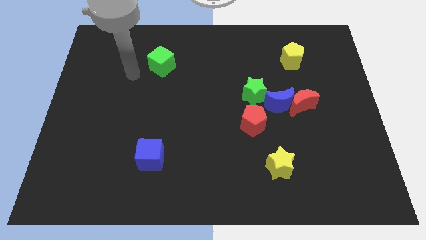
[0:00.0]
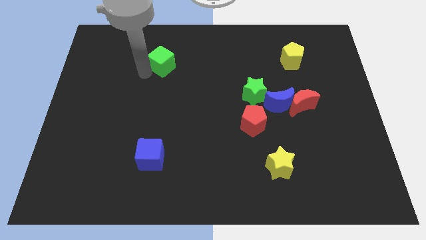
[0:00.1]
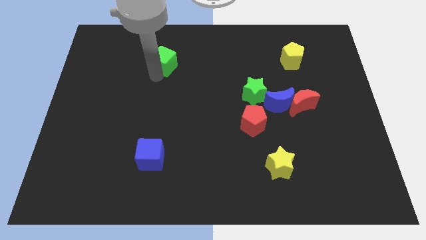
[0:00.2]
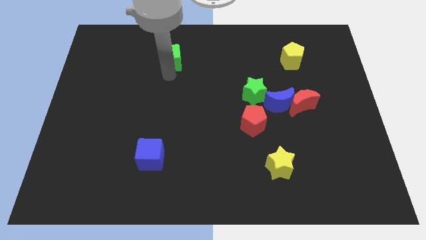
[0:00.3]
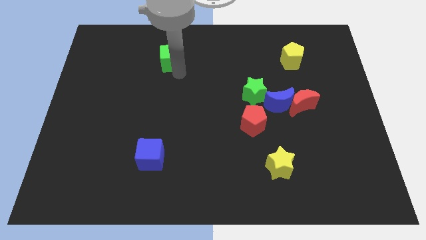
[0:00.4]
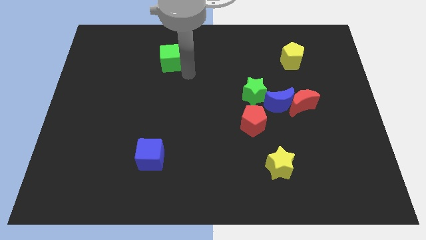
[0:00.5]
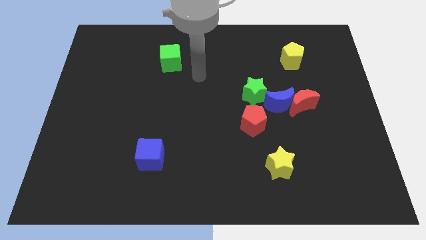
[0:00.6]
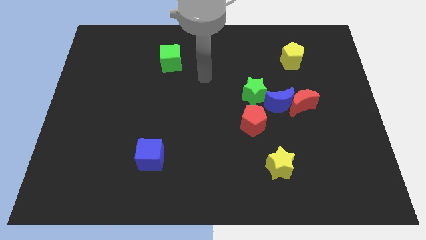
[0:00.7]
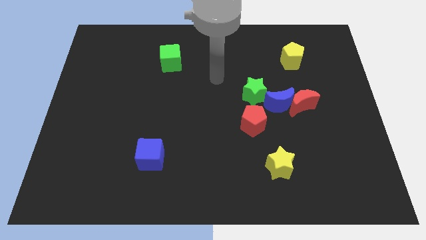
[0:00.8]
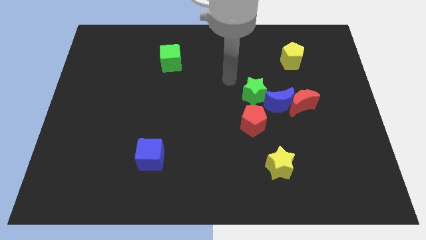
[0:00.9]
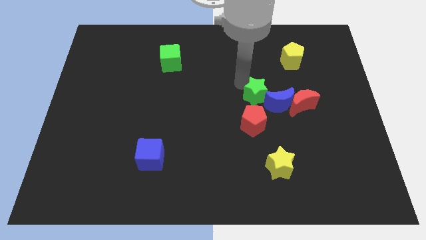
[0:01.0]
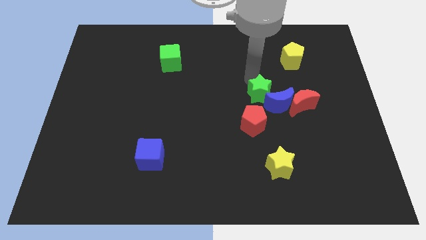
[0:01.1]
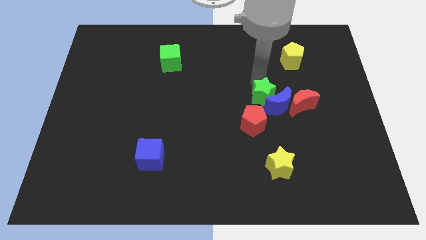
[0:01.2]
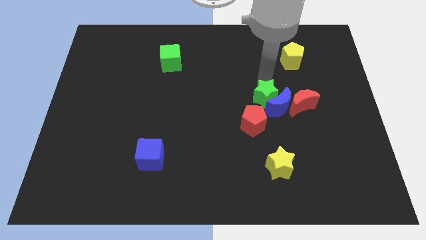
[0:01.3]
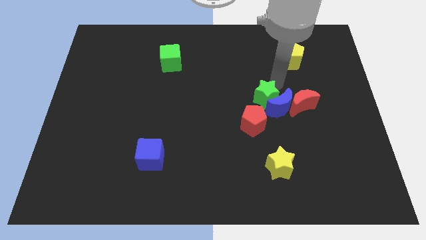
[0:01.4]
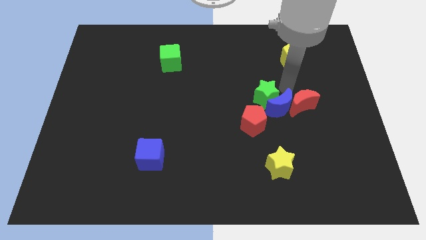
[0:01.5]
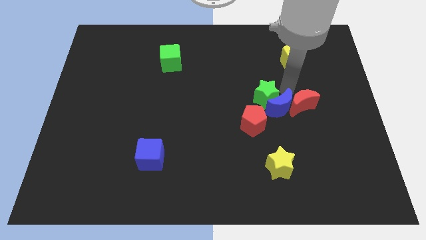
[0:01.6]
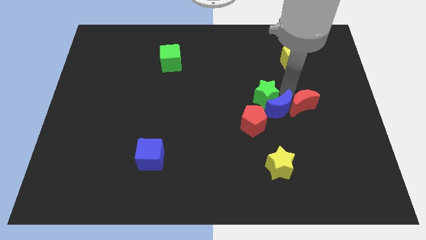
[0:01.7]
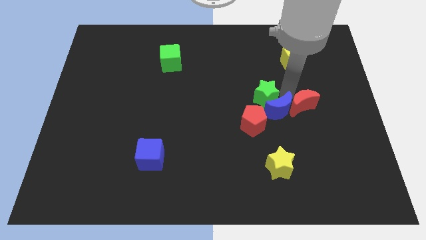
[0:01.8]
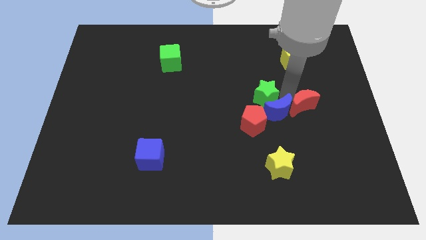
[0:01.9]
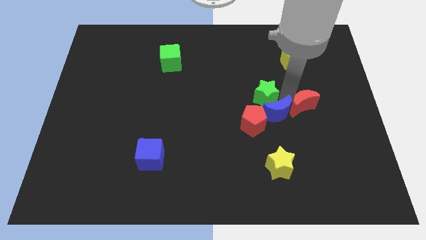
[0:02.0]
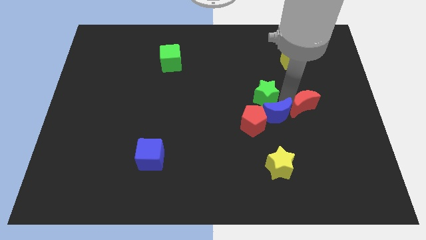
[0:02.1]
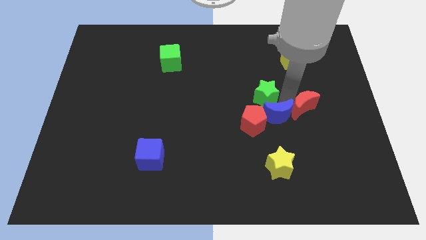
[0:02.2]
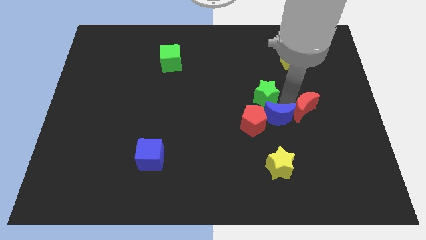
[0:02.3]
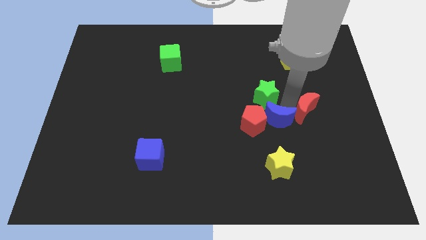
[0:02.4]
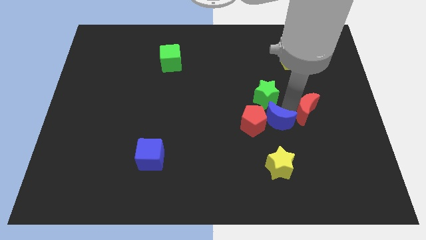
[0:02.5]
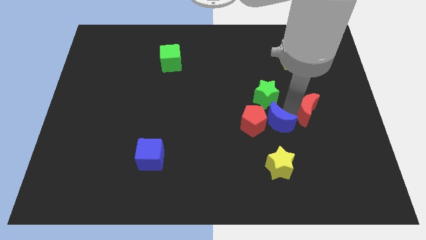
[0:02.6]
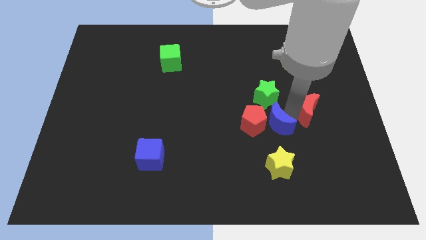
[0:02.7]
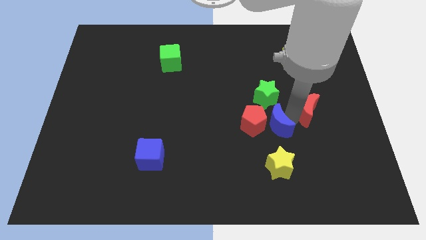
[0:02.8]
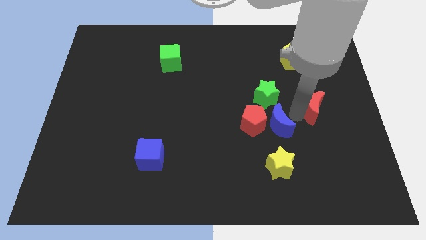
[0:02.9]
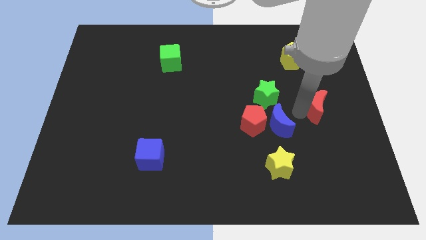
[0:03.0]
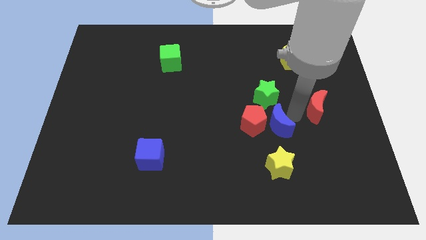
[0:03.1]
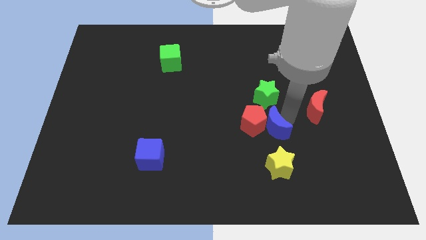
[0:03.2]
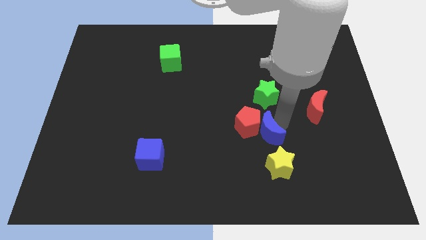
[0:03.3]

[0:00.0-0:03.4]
push the blue moon a little downwards and left

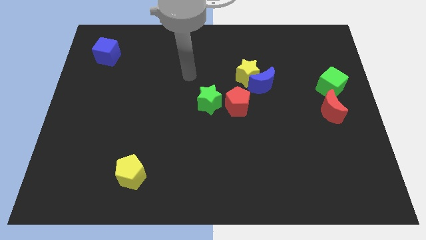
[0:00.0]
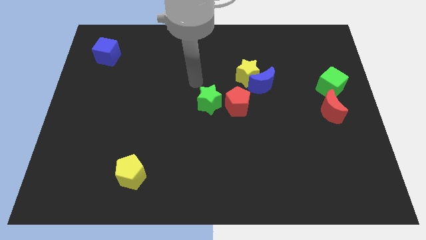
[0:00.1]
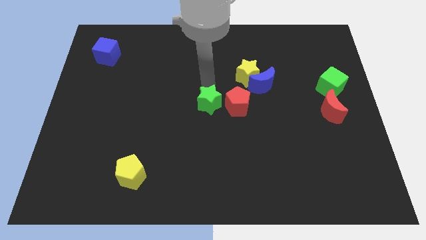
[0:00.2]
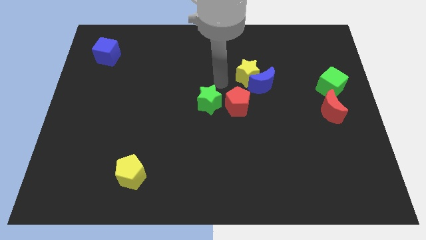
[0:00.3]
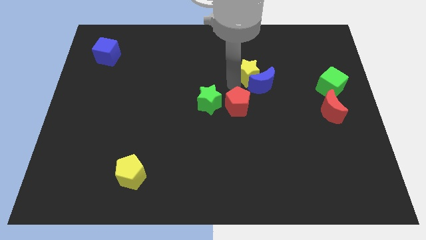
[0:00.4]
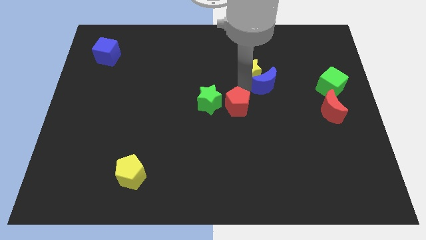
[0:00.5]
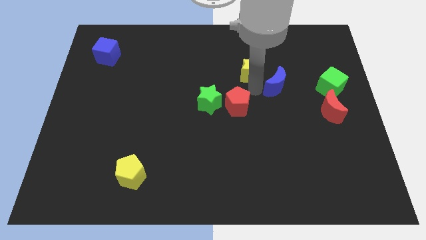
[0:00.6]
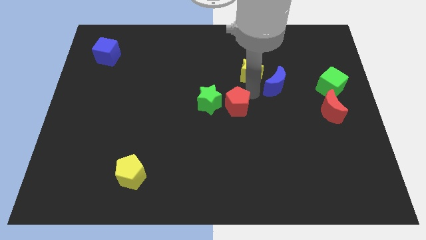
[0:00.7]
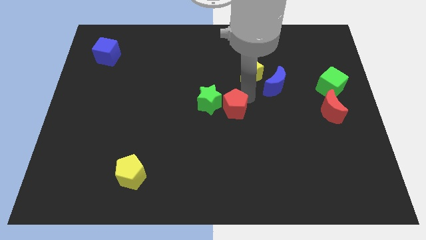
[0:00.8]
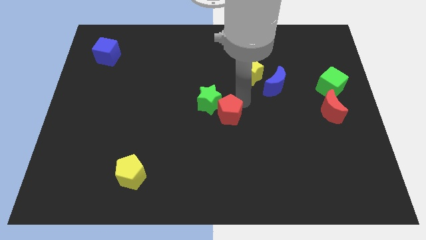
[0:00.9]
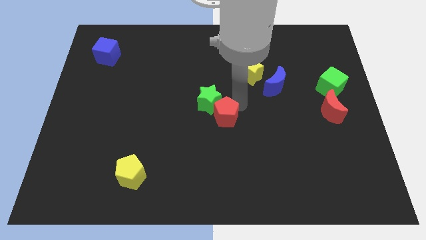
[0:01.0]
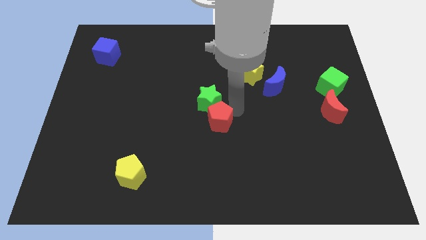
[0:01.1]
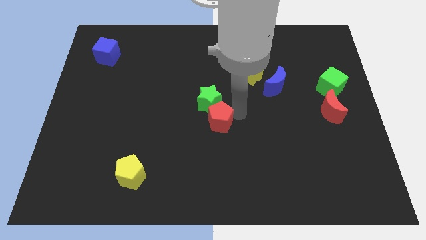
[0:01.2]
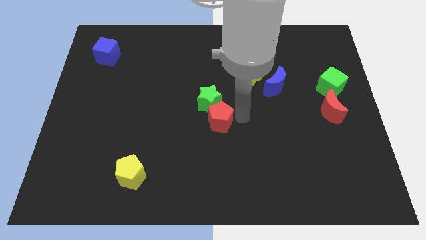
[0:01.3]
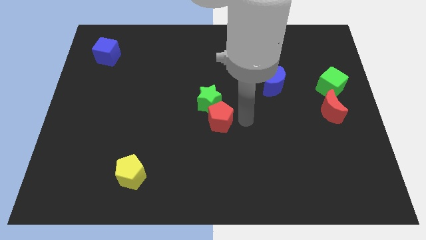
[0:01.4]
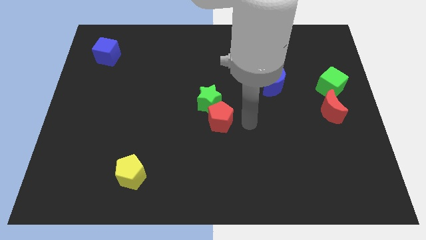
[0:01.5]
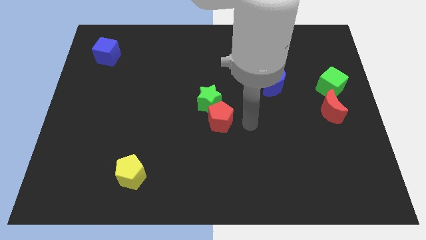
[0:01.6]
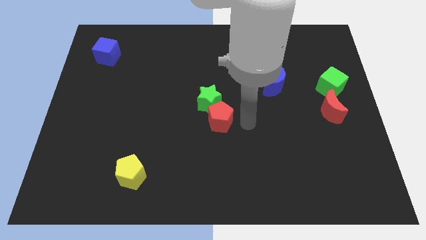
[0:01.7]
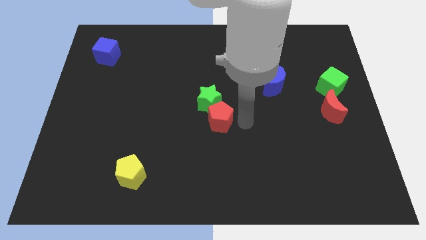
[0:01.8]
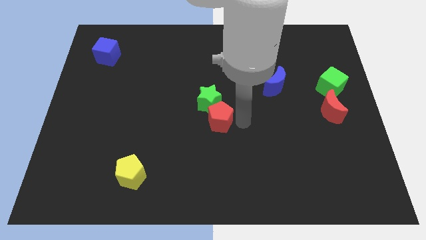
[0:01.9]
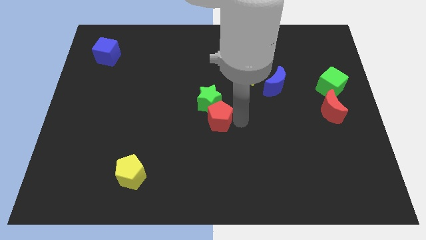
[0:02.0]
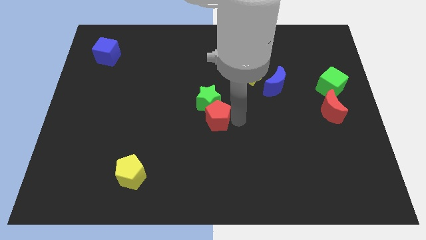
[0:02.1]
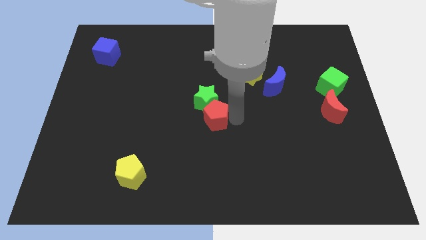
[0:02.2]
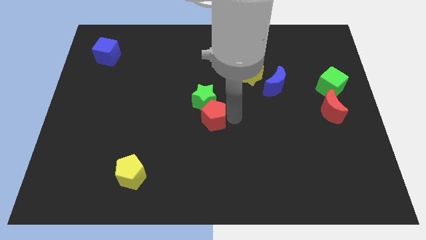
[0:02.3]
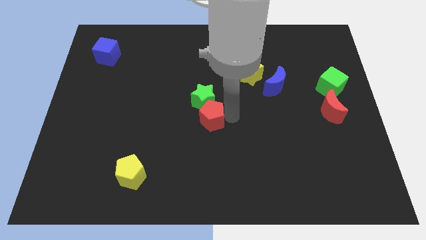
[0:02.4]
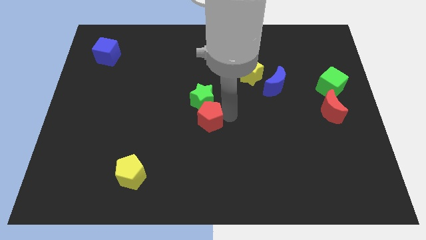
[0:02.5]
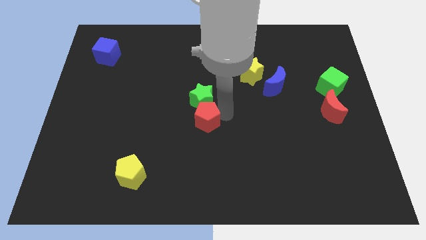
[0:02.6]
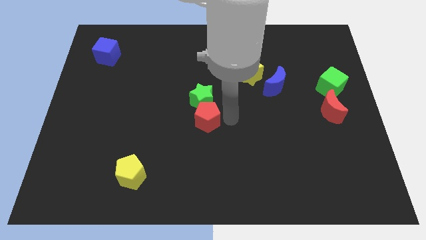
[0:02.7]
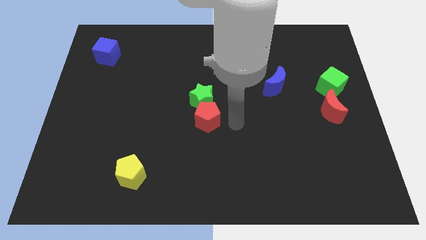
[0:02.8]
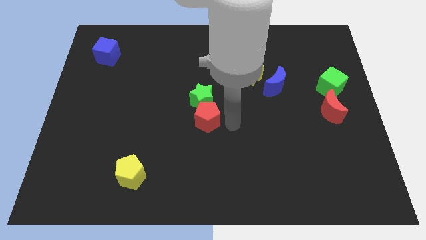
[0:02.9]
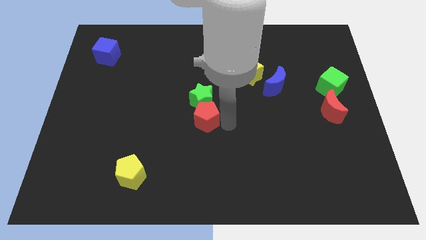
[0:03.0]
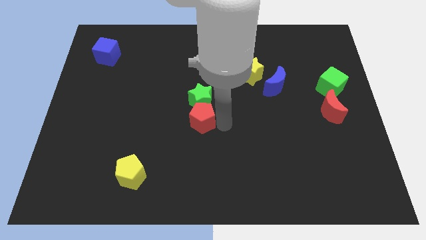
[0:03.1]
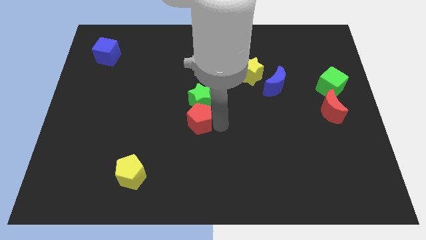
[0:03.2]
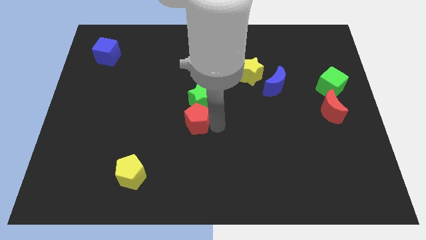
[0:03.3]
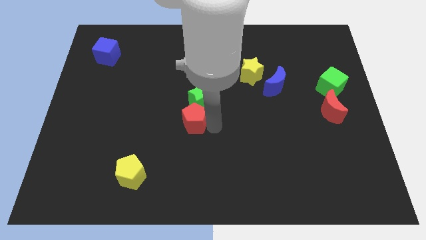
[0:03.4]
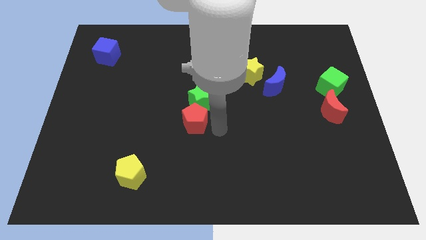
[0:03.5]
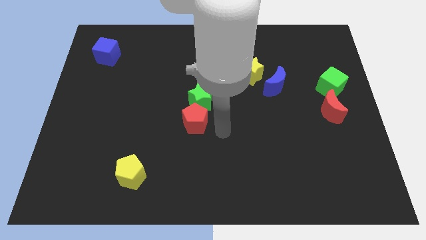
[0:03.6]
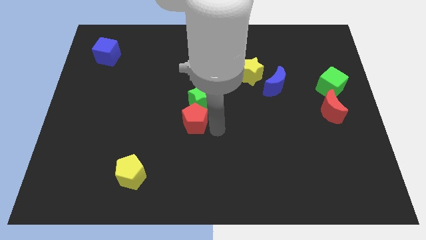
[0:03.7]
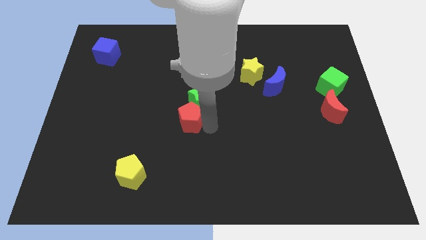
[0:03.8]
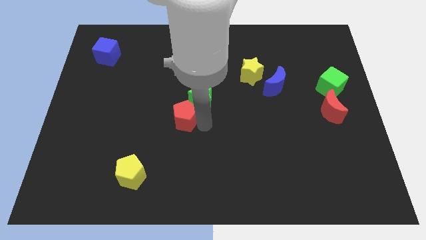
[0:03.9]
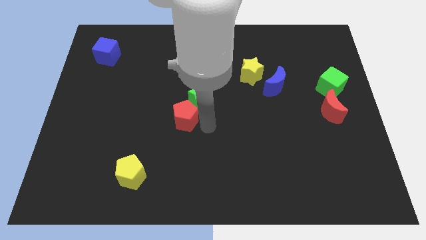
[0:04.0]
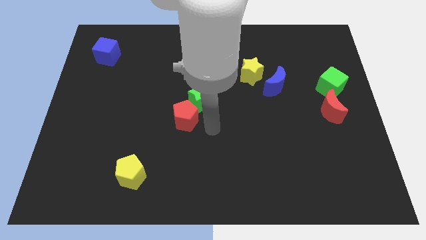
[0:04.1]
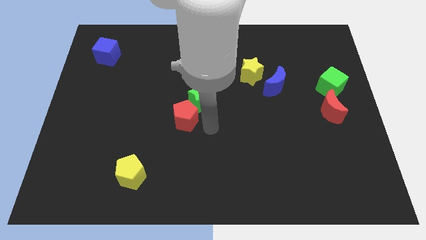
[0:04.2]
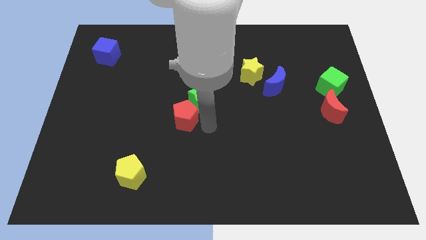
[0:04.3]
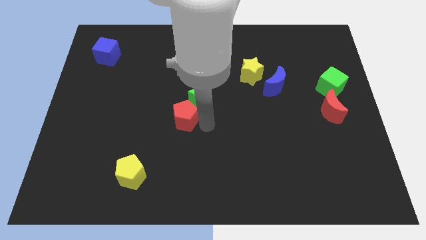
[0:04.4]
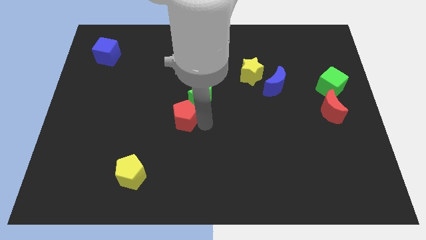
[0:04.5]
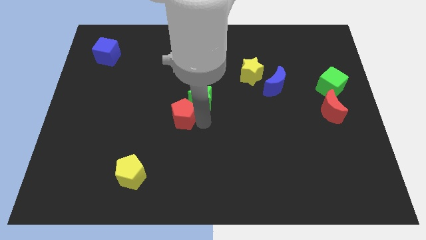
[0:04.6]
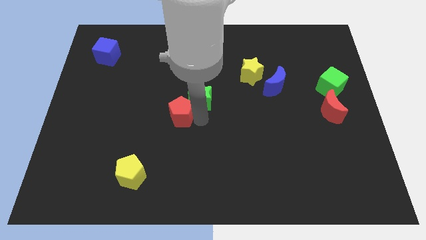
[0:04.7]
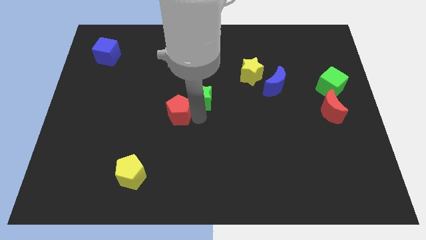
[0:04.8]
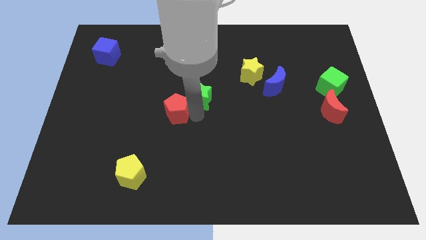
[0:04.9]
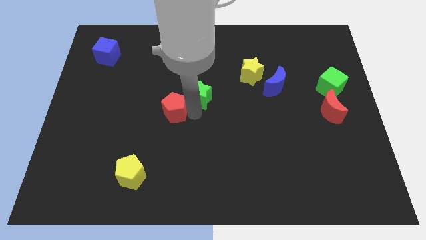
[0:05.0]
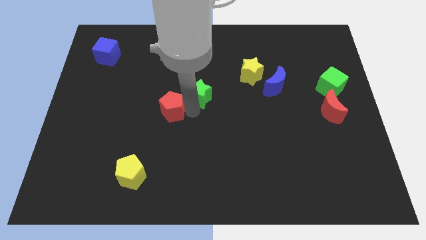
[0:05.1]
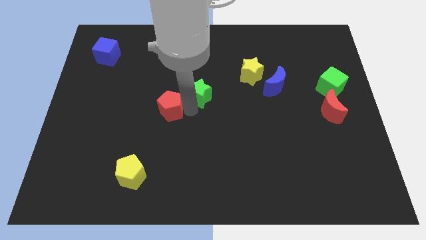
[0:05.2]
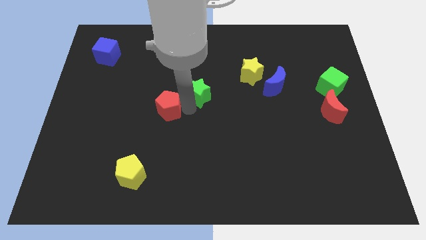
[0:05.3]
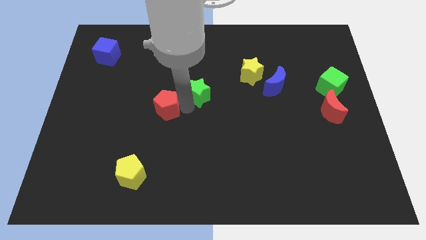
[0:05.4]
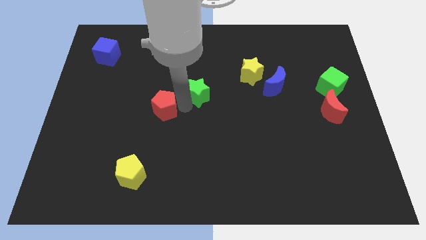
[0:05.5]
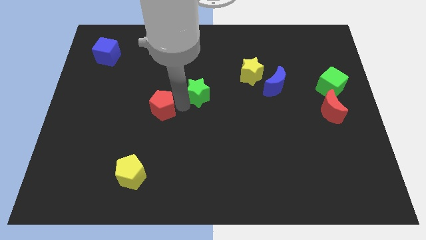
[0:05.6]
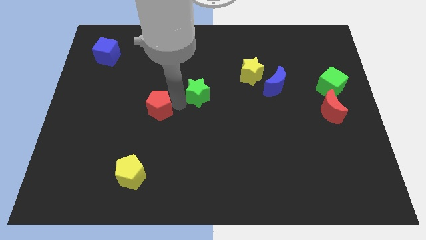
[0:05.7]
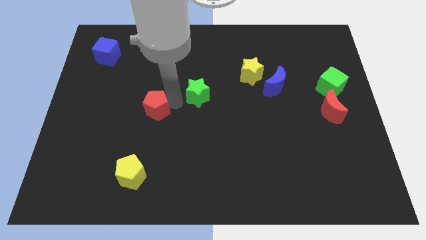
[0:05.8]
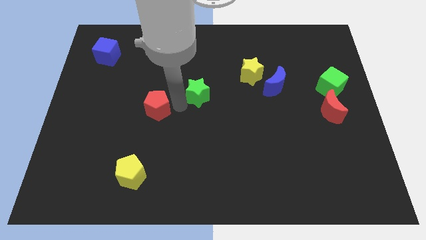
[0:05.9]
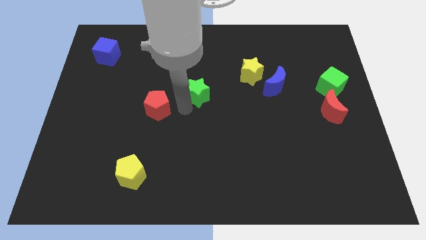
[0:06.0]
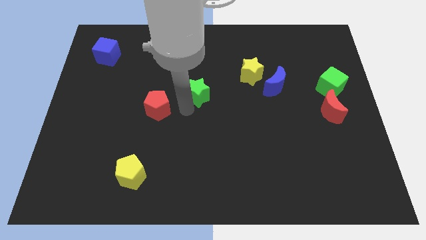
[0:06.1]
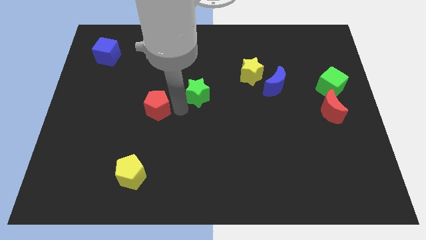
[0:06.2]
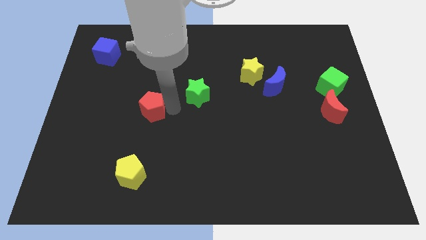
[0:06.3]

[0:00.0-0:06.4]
slide the red pentagon to the left
